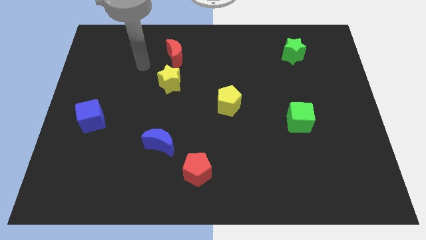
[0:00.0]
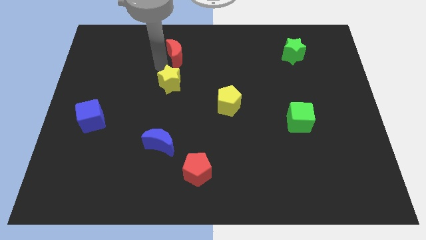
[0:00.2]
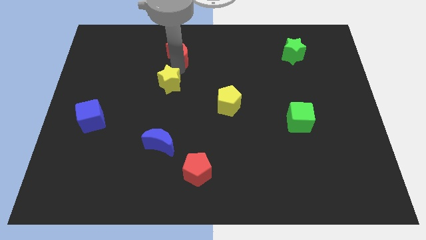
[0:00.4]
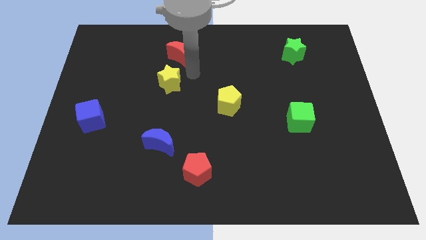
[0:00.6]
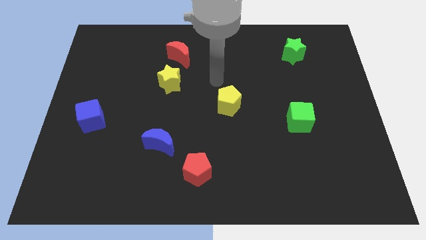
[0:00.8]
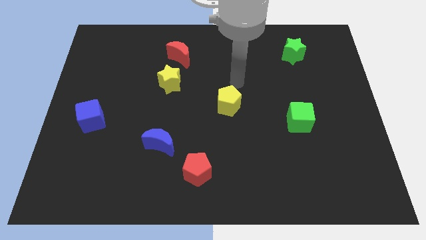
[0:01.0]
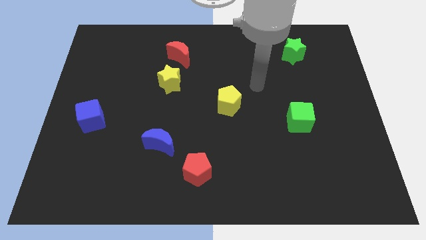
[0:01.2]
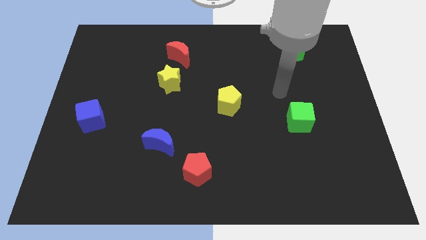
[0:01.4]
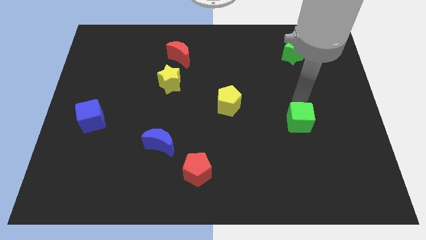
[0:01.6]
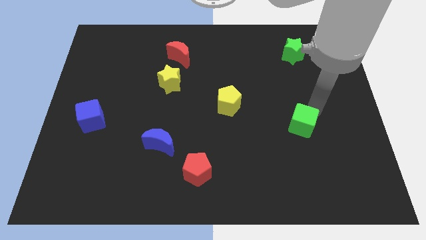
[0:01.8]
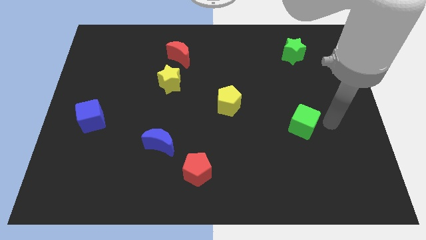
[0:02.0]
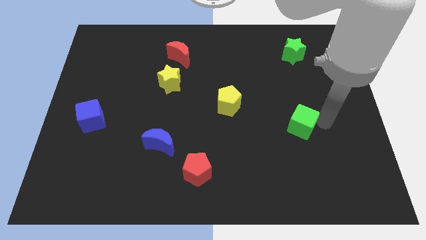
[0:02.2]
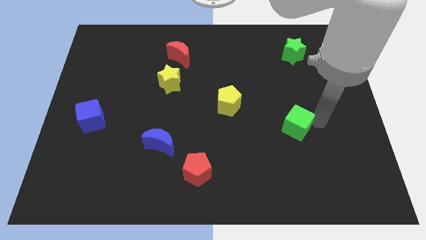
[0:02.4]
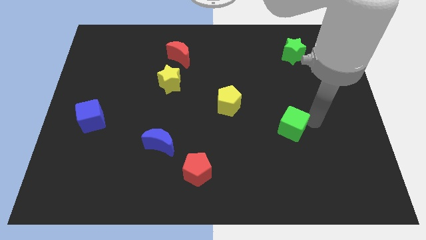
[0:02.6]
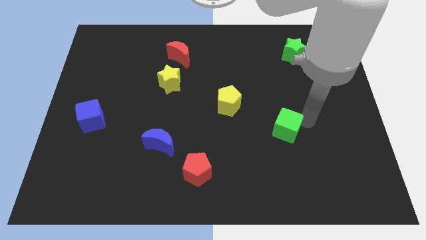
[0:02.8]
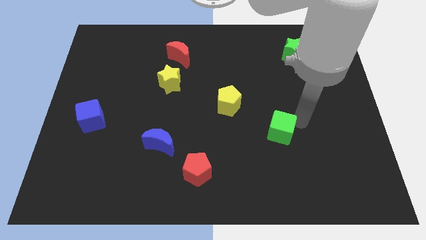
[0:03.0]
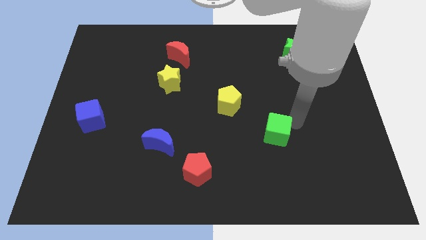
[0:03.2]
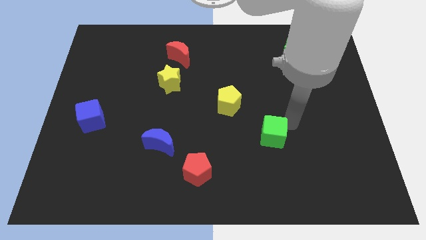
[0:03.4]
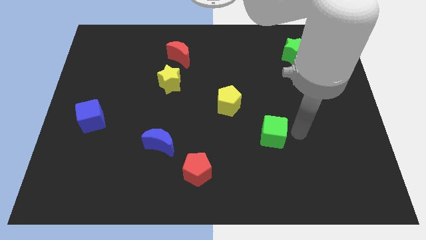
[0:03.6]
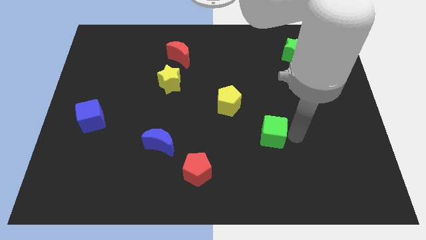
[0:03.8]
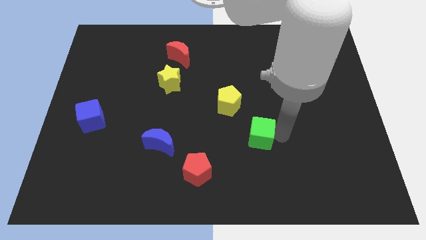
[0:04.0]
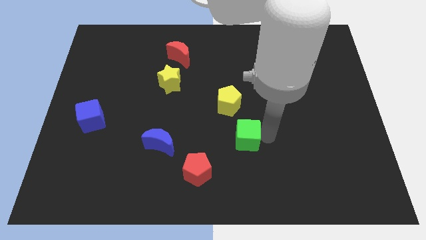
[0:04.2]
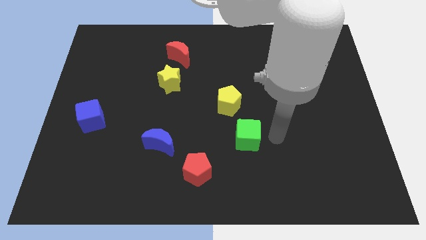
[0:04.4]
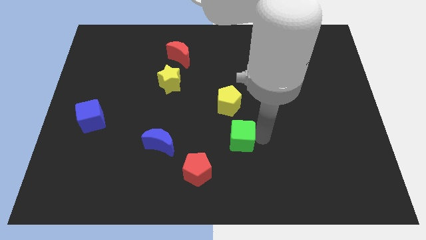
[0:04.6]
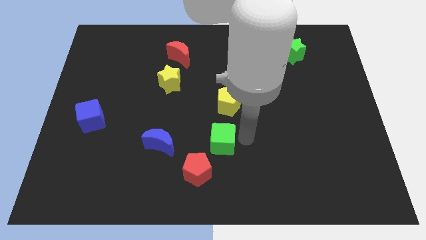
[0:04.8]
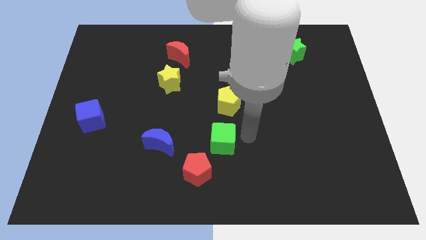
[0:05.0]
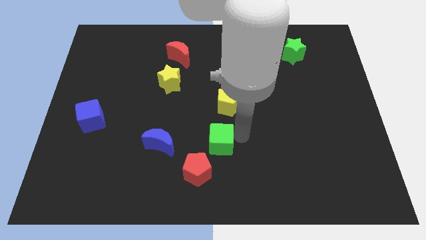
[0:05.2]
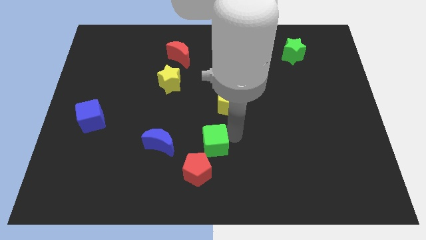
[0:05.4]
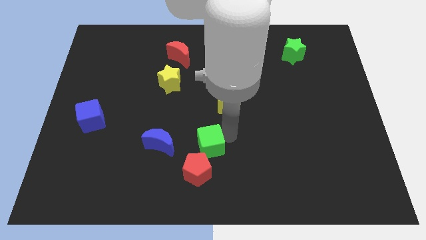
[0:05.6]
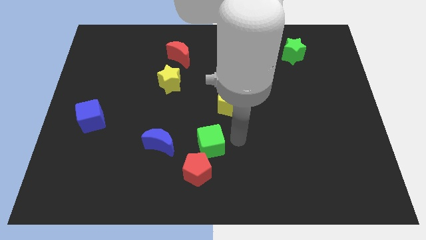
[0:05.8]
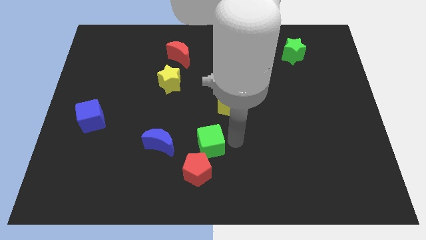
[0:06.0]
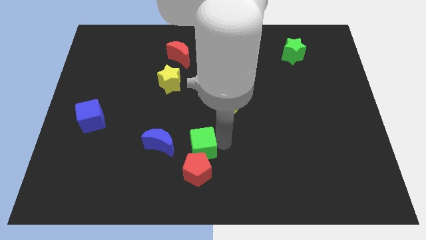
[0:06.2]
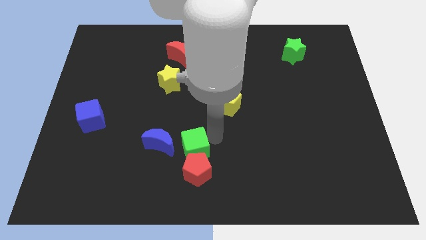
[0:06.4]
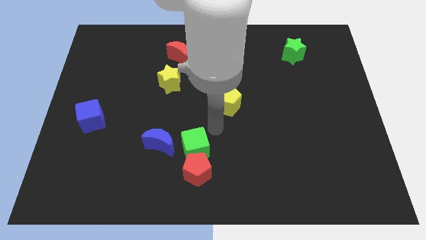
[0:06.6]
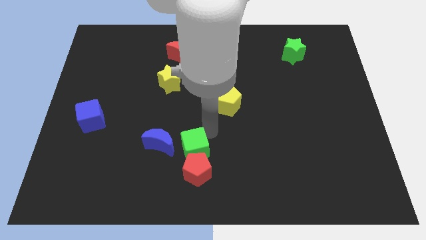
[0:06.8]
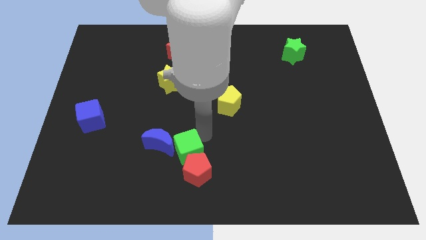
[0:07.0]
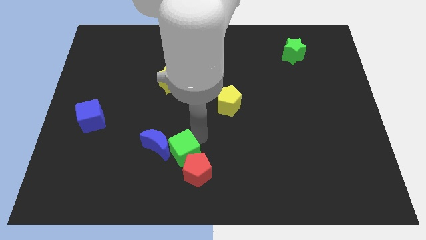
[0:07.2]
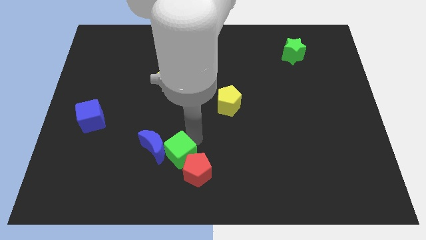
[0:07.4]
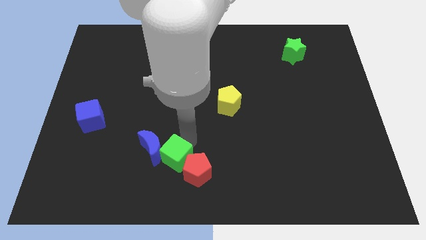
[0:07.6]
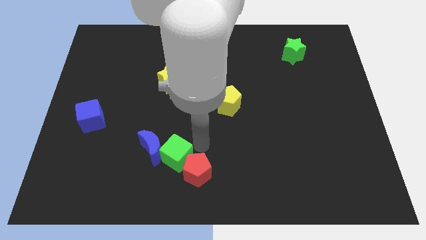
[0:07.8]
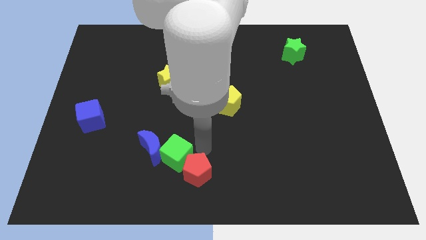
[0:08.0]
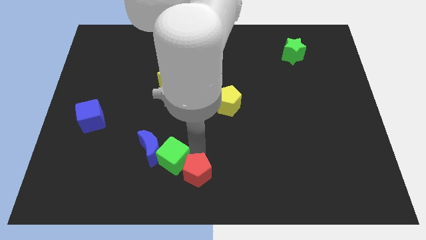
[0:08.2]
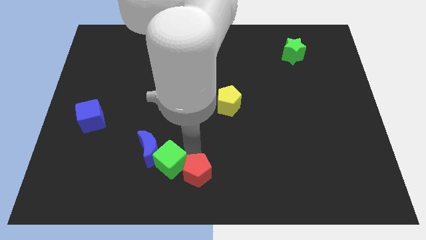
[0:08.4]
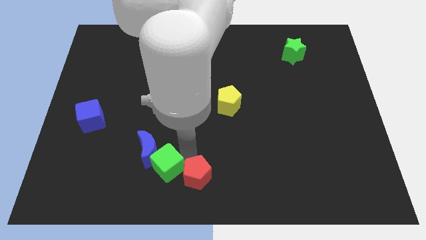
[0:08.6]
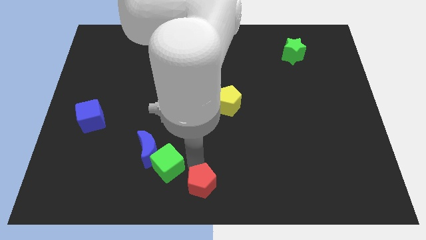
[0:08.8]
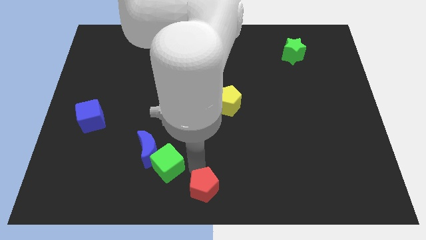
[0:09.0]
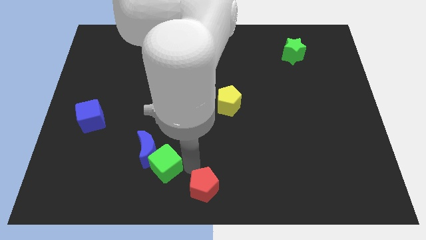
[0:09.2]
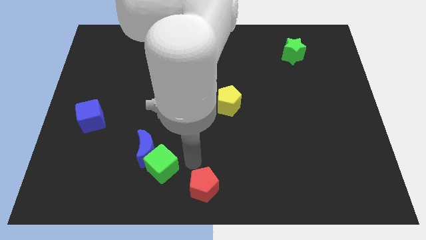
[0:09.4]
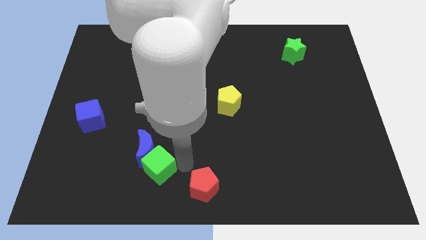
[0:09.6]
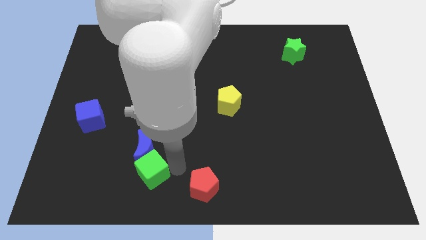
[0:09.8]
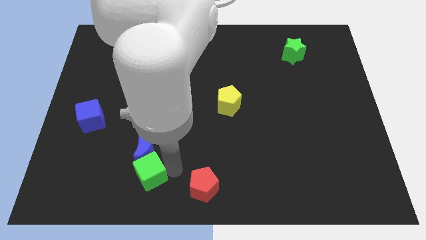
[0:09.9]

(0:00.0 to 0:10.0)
push the green cube to the bottom left of the blue moon

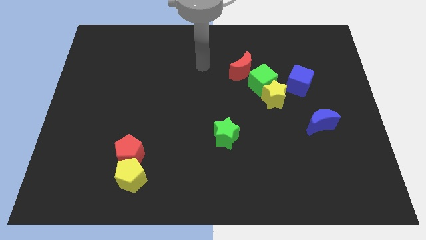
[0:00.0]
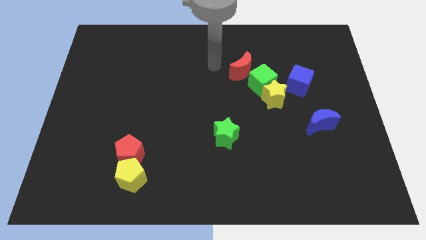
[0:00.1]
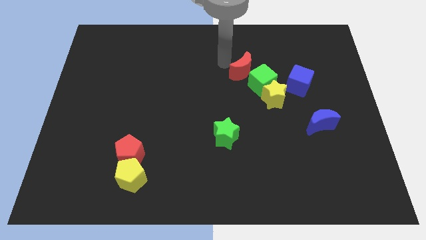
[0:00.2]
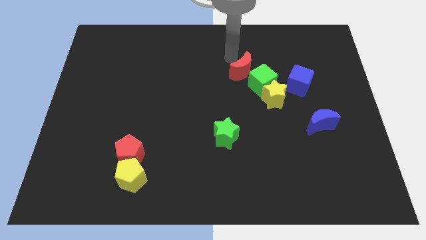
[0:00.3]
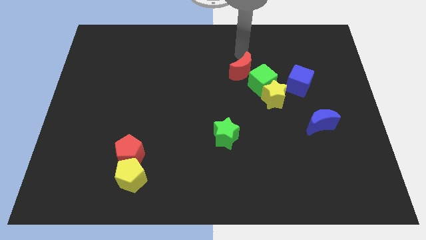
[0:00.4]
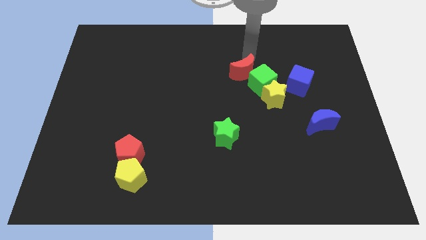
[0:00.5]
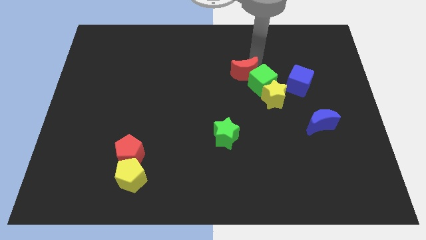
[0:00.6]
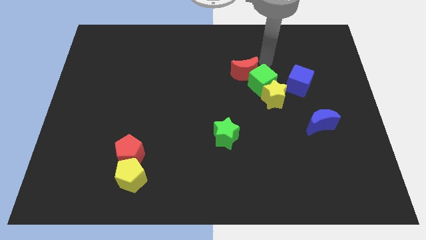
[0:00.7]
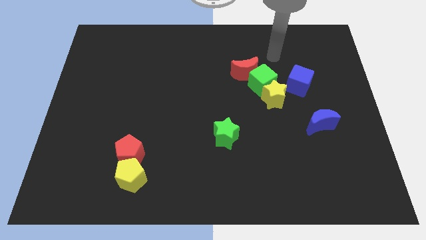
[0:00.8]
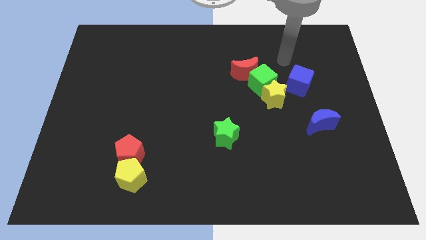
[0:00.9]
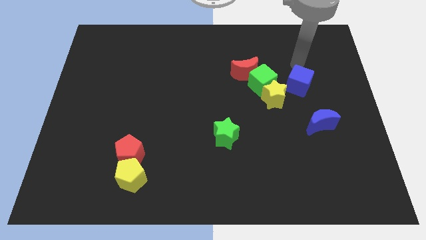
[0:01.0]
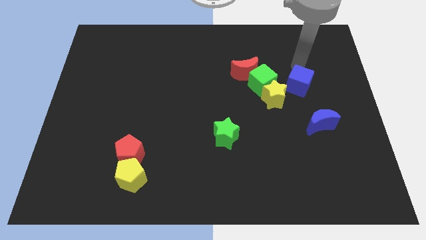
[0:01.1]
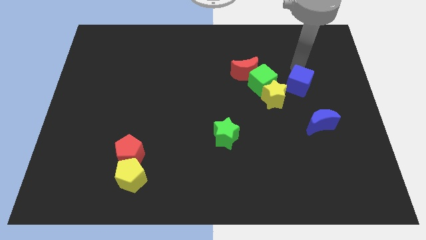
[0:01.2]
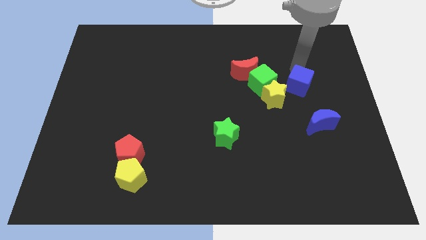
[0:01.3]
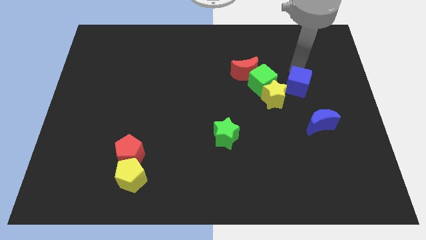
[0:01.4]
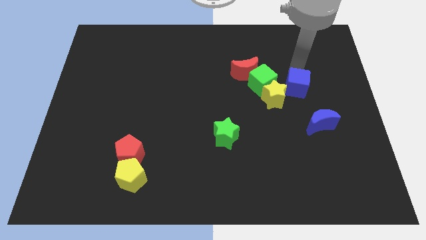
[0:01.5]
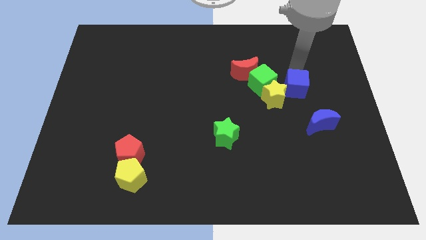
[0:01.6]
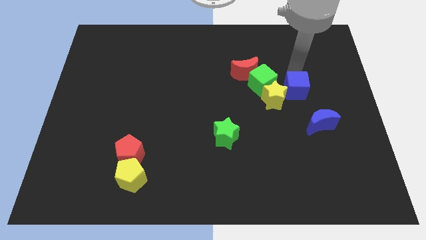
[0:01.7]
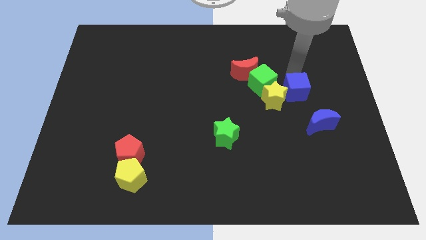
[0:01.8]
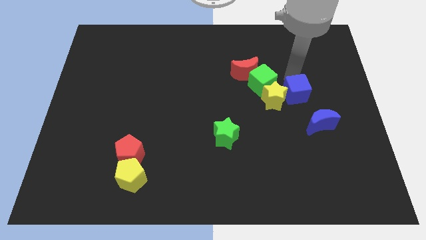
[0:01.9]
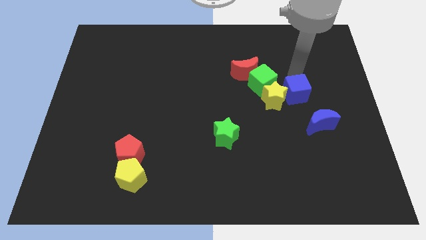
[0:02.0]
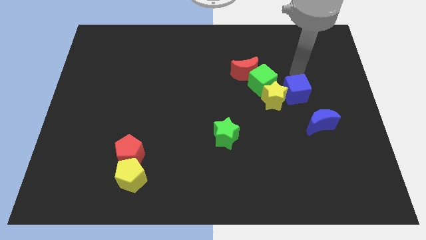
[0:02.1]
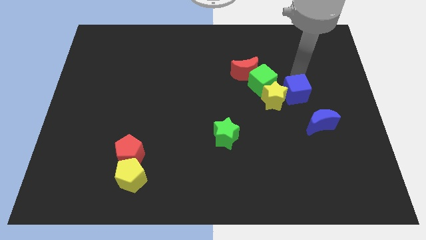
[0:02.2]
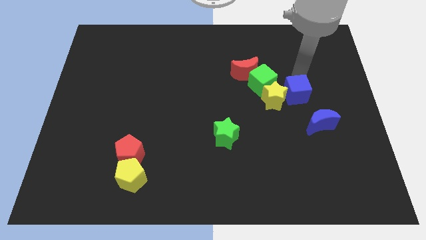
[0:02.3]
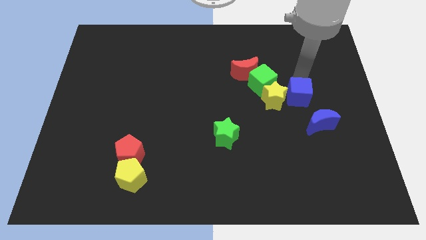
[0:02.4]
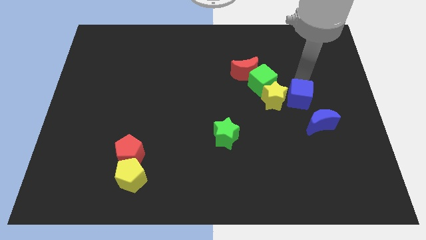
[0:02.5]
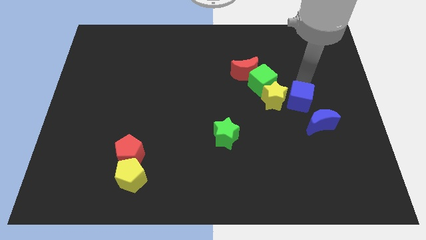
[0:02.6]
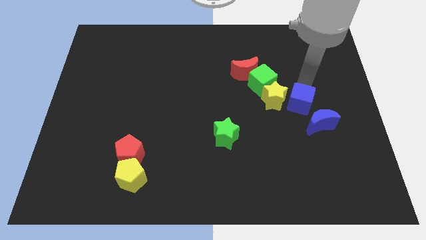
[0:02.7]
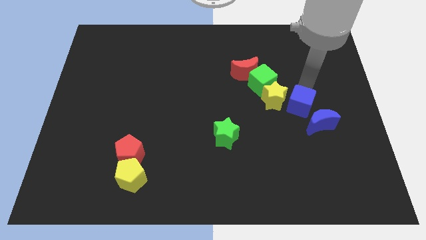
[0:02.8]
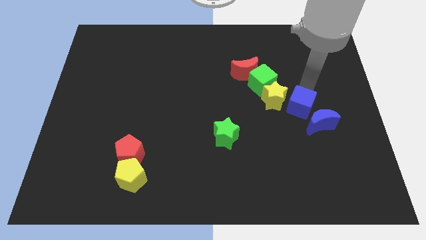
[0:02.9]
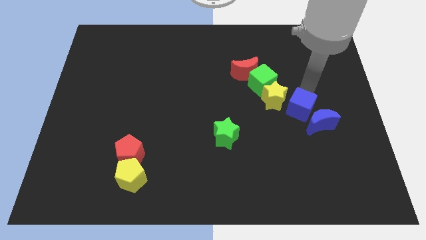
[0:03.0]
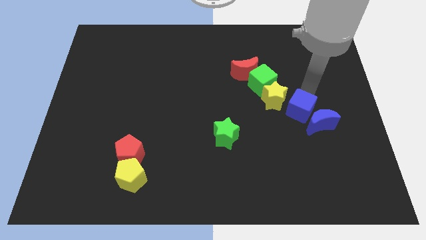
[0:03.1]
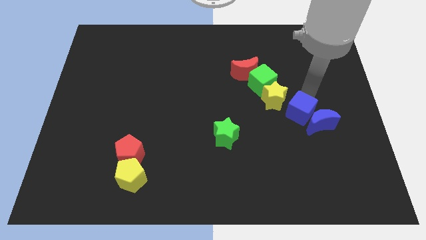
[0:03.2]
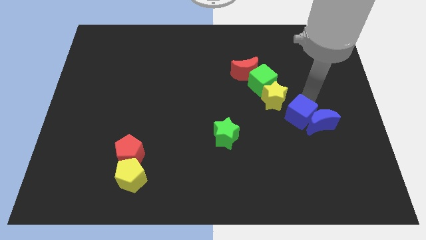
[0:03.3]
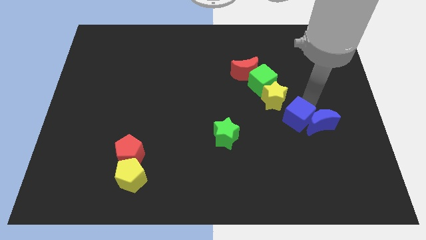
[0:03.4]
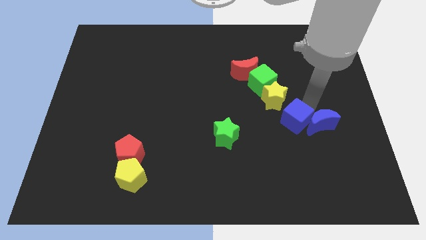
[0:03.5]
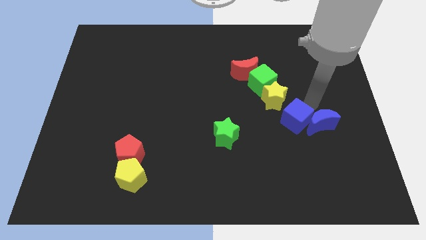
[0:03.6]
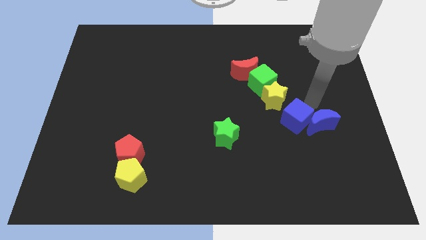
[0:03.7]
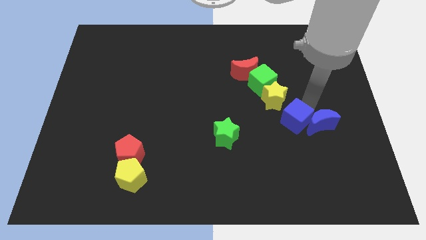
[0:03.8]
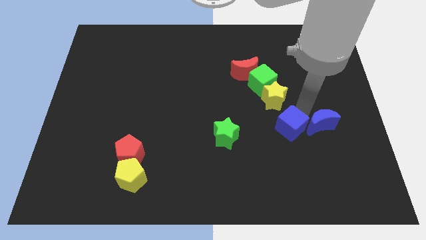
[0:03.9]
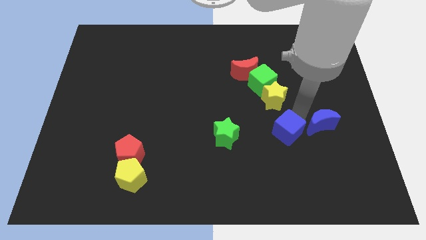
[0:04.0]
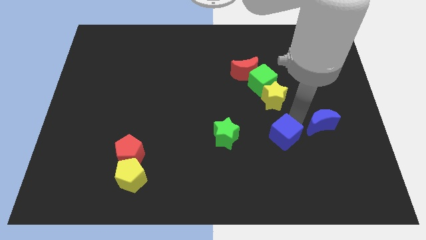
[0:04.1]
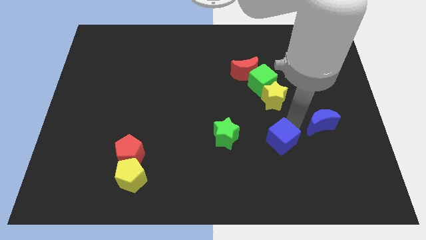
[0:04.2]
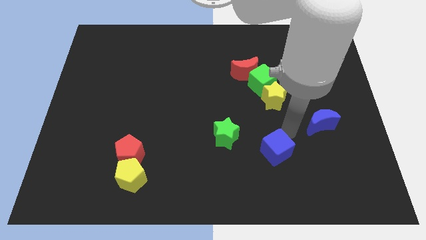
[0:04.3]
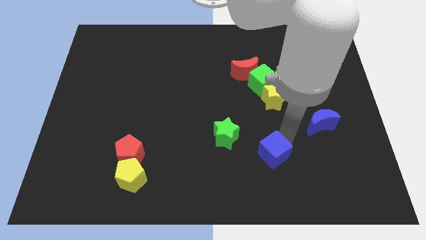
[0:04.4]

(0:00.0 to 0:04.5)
move the blue cube diagonally down and to the right of the green star
